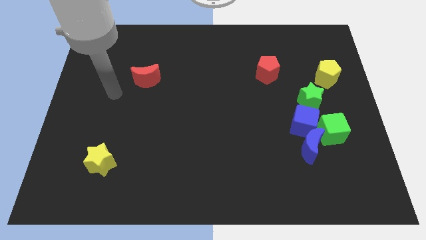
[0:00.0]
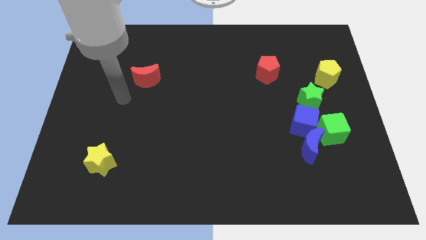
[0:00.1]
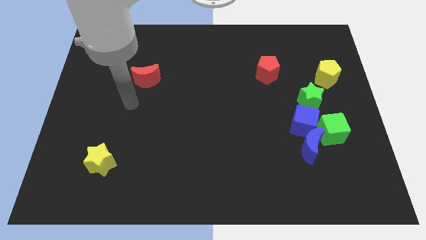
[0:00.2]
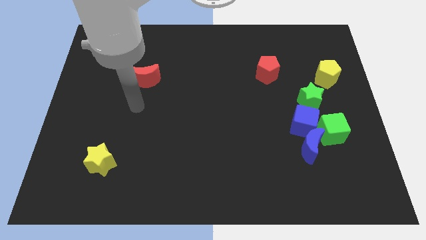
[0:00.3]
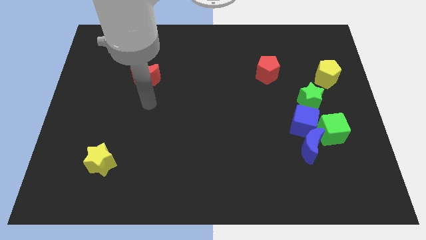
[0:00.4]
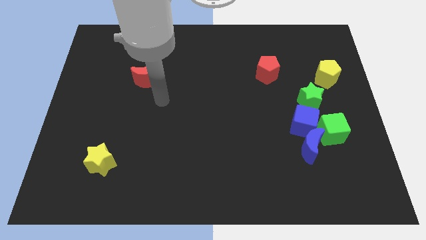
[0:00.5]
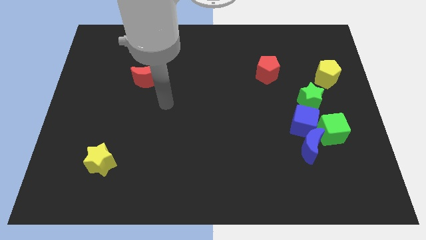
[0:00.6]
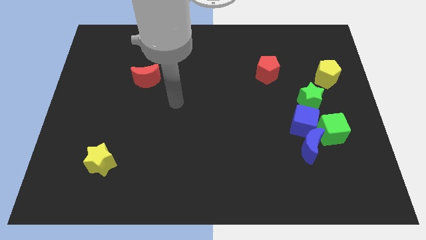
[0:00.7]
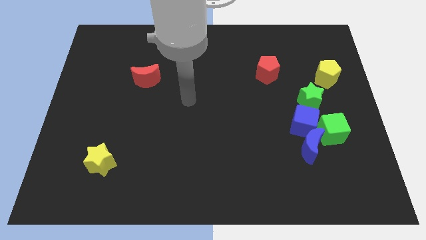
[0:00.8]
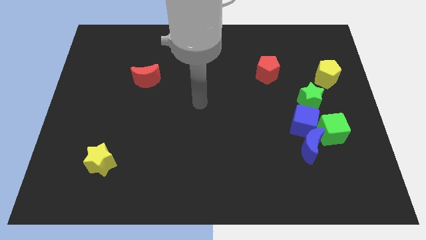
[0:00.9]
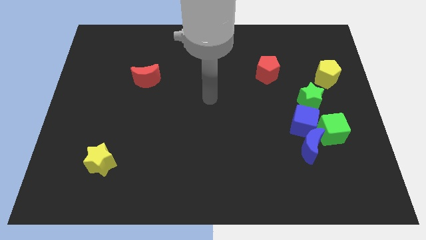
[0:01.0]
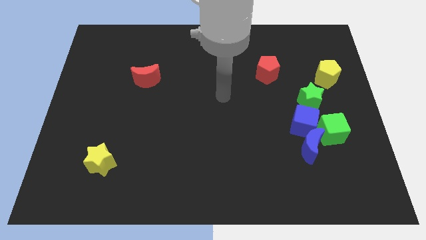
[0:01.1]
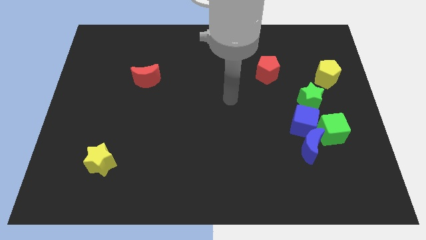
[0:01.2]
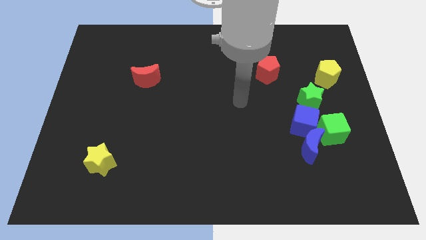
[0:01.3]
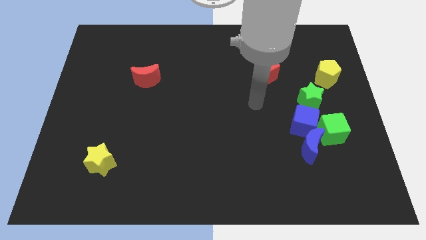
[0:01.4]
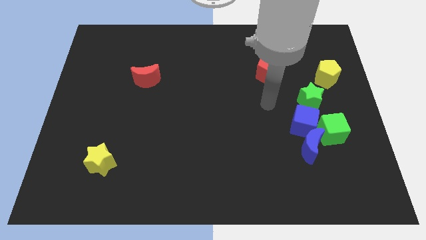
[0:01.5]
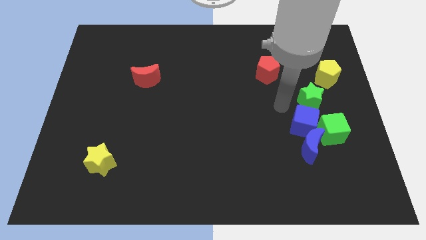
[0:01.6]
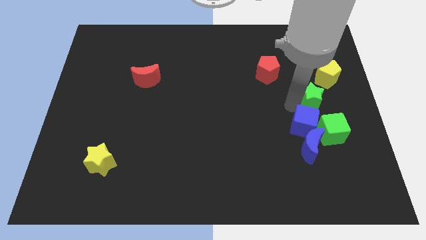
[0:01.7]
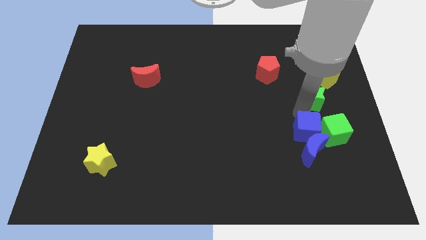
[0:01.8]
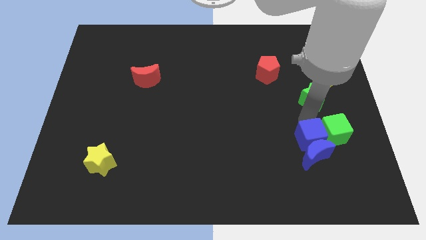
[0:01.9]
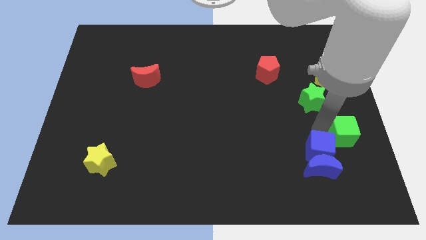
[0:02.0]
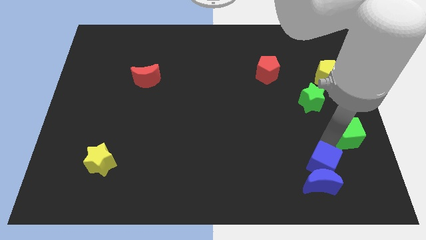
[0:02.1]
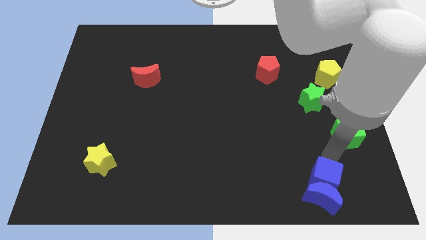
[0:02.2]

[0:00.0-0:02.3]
separate the blue moon from the blue cube and green cube

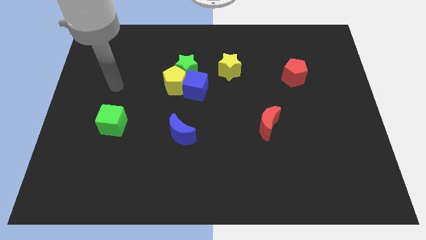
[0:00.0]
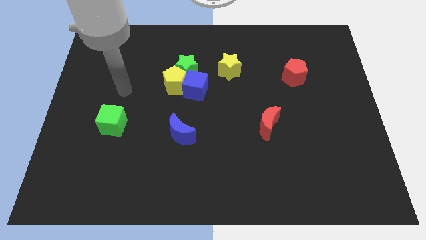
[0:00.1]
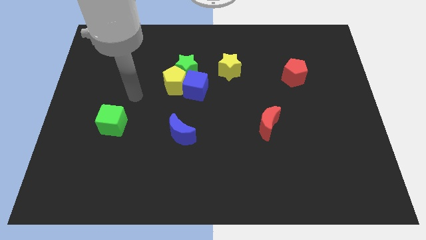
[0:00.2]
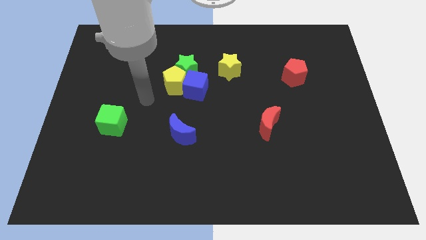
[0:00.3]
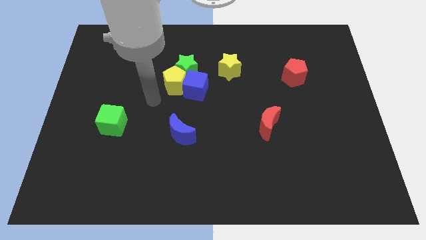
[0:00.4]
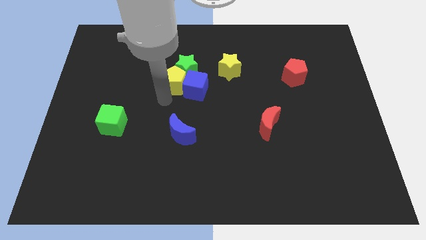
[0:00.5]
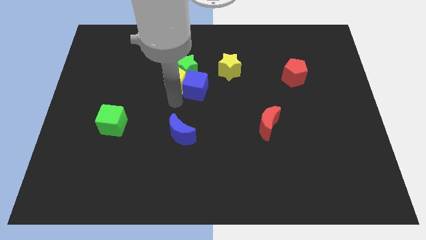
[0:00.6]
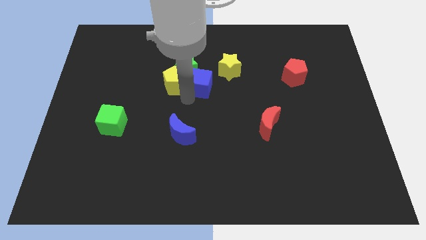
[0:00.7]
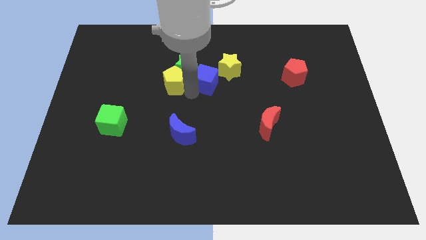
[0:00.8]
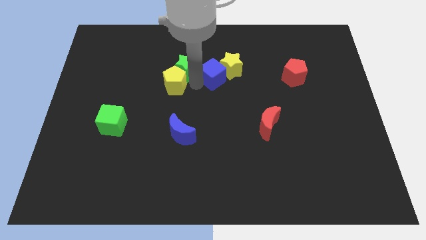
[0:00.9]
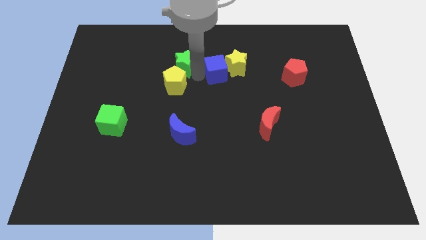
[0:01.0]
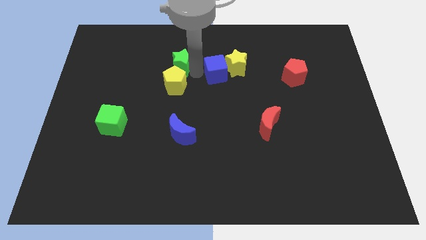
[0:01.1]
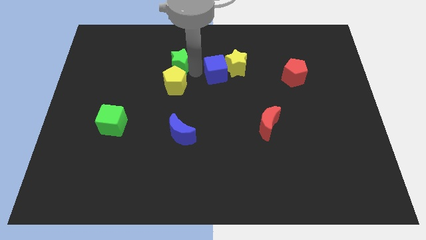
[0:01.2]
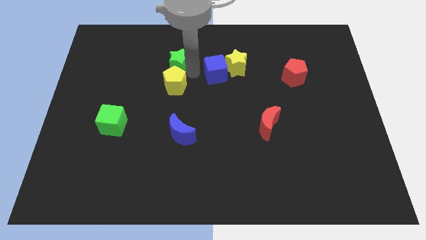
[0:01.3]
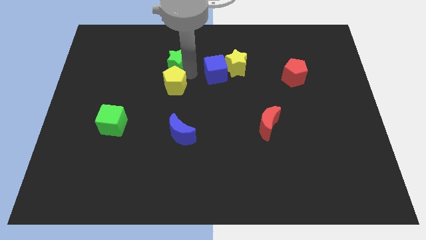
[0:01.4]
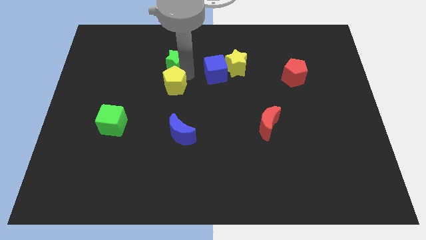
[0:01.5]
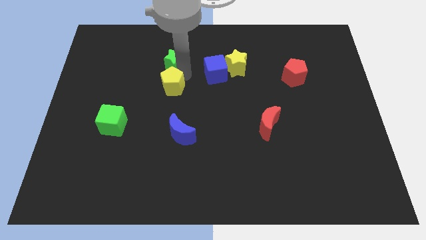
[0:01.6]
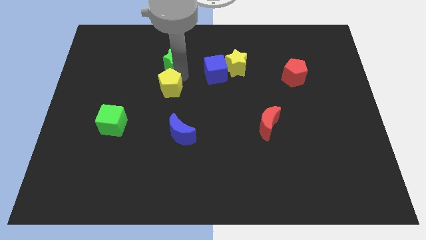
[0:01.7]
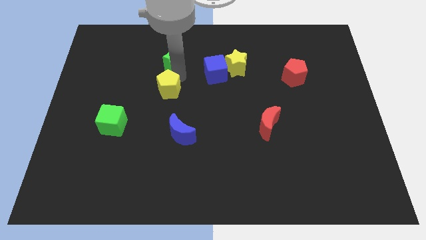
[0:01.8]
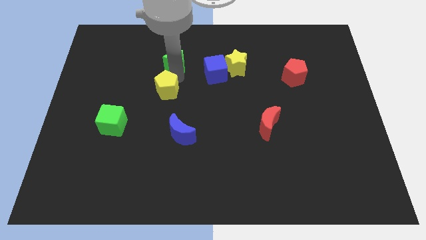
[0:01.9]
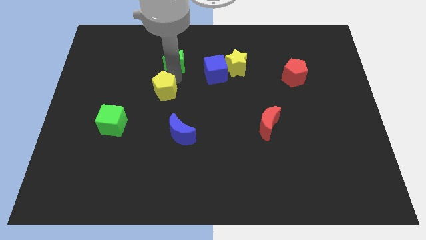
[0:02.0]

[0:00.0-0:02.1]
separate the yellow pentagon from the green star and blue cube

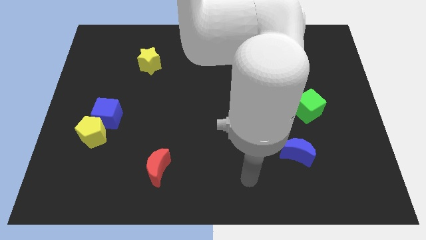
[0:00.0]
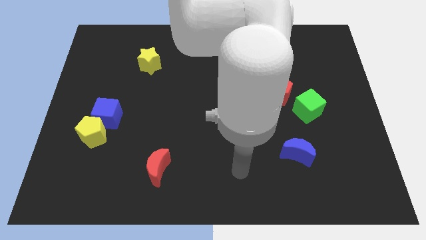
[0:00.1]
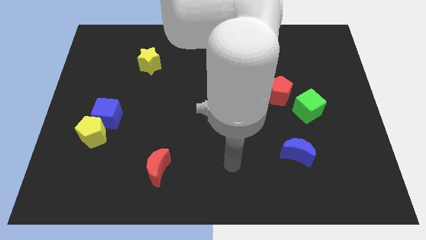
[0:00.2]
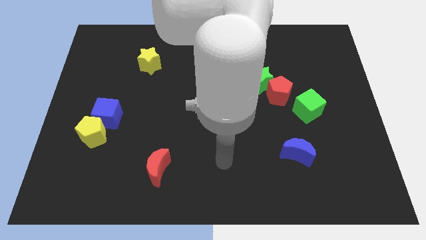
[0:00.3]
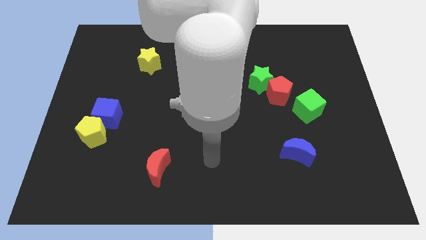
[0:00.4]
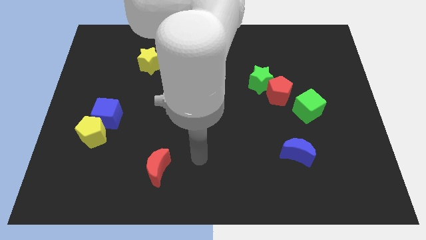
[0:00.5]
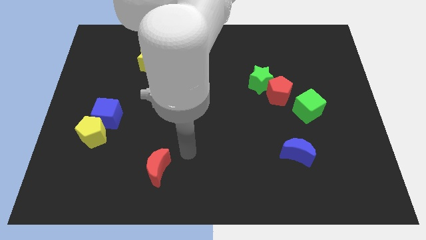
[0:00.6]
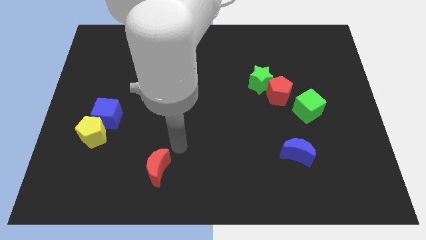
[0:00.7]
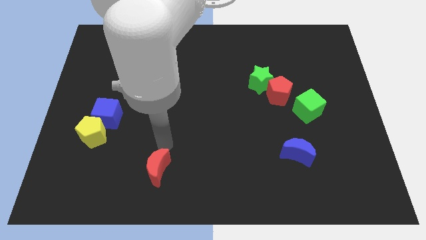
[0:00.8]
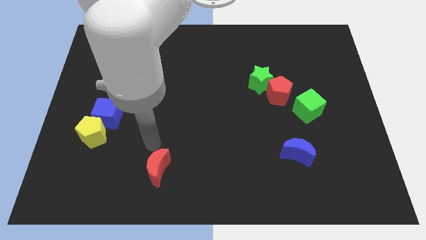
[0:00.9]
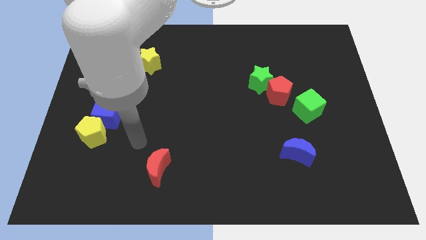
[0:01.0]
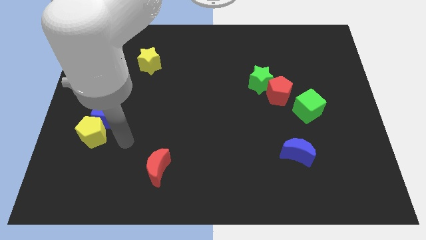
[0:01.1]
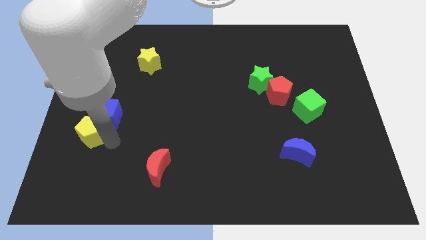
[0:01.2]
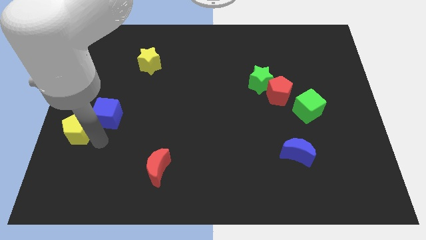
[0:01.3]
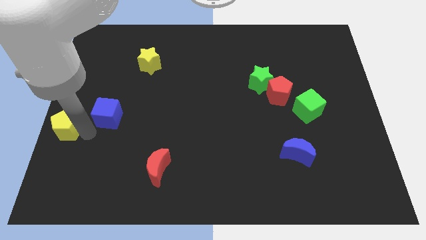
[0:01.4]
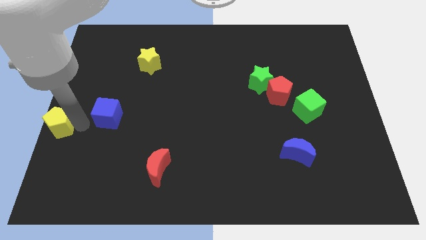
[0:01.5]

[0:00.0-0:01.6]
separate the blue cube from the yellow pentagon

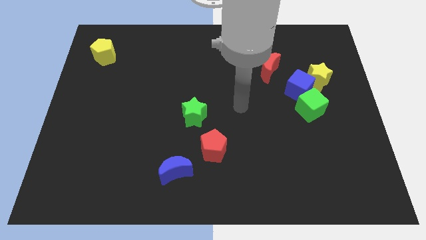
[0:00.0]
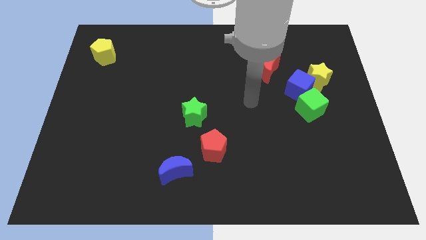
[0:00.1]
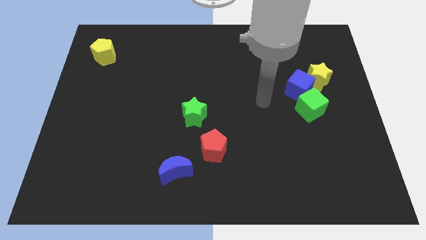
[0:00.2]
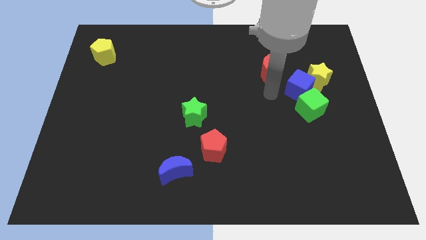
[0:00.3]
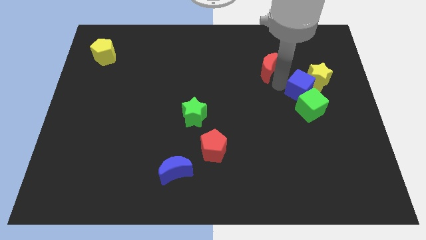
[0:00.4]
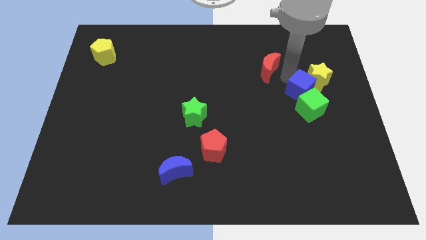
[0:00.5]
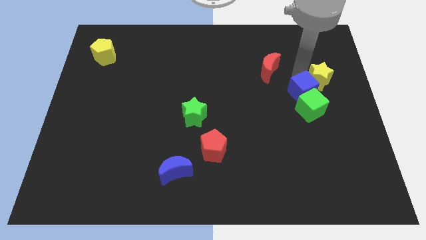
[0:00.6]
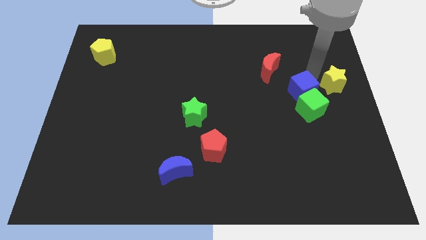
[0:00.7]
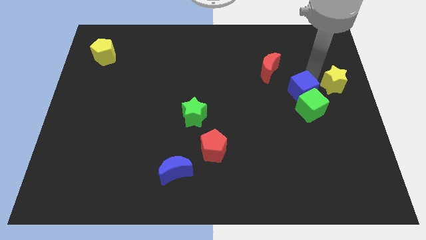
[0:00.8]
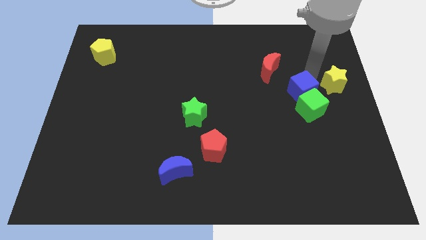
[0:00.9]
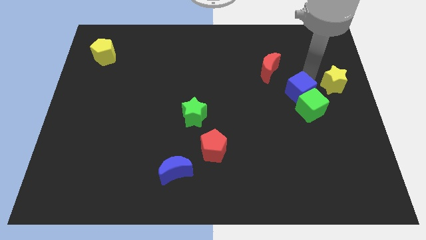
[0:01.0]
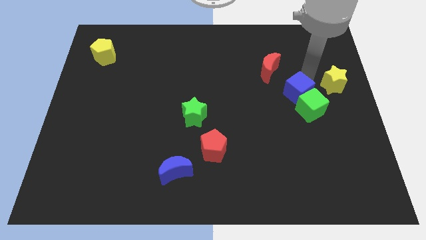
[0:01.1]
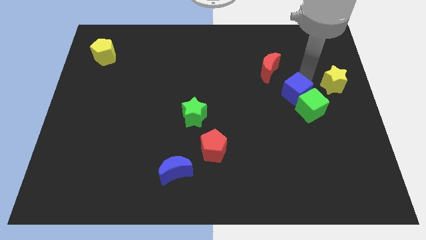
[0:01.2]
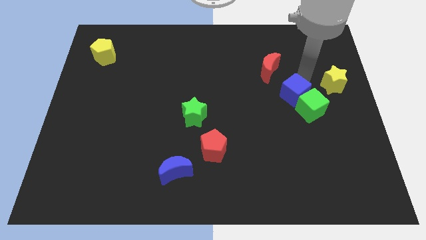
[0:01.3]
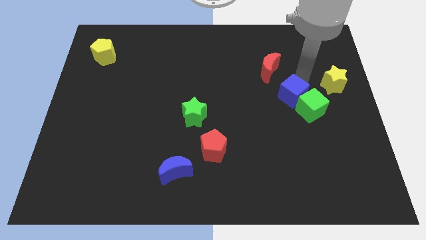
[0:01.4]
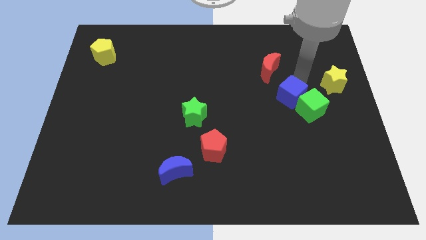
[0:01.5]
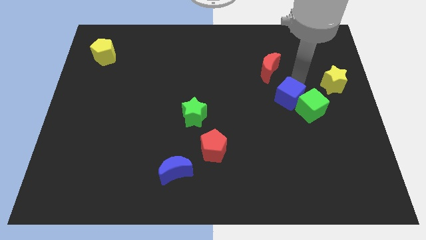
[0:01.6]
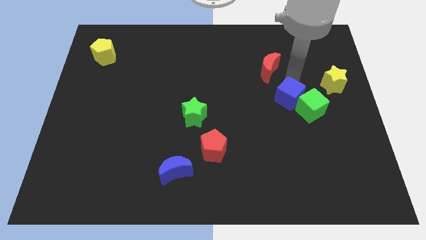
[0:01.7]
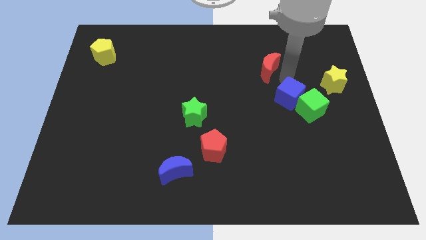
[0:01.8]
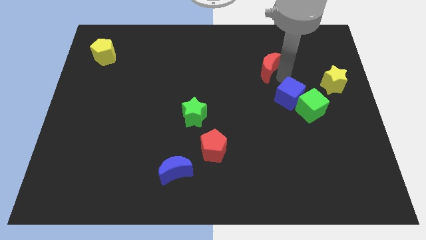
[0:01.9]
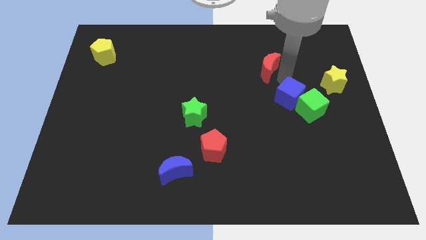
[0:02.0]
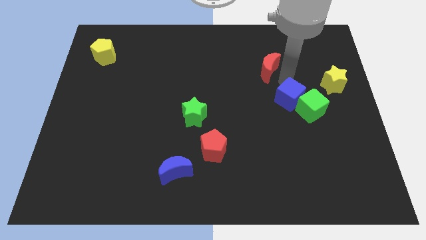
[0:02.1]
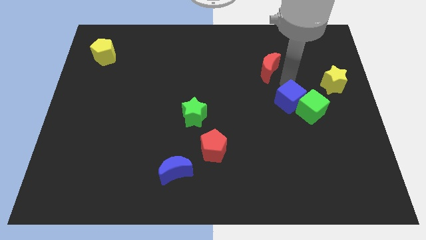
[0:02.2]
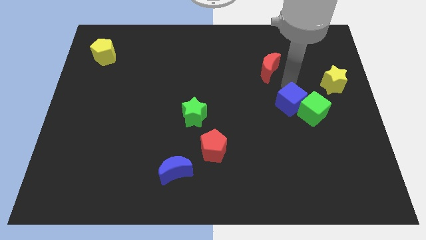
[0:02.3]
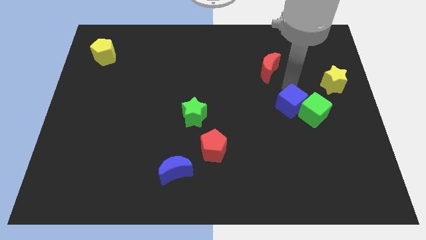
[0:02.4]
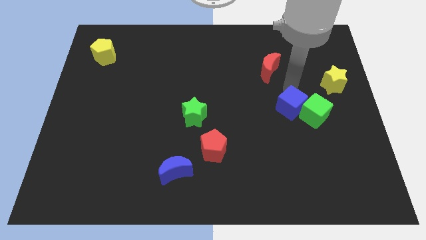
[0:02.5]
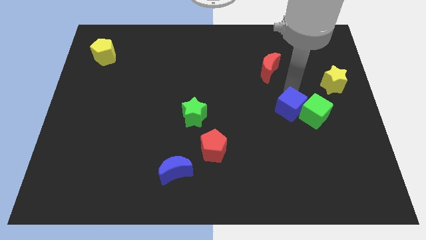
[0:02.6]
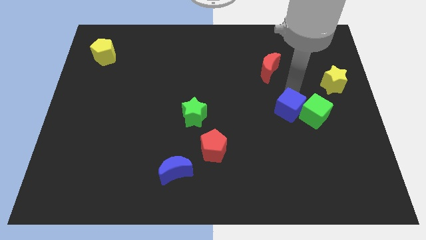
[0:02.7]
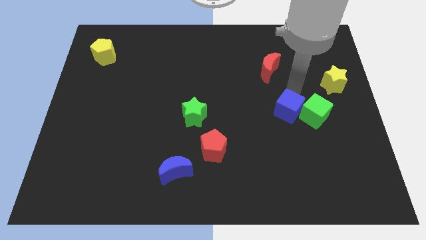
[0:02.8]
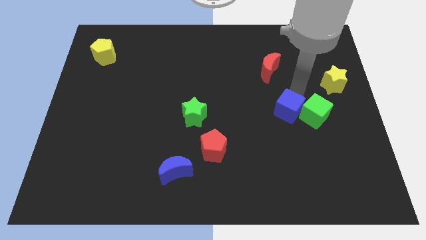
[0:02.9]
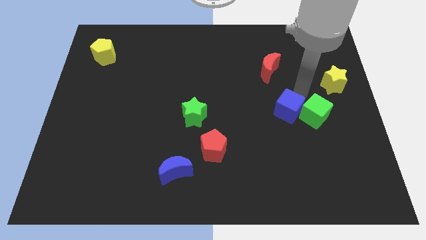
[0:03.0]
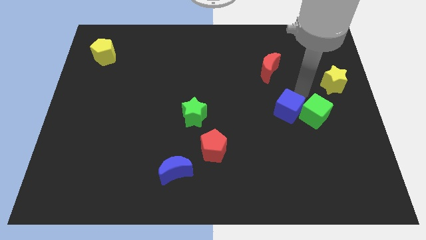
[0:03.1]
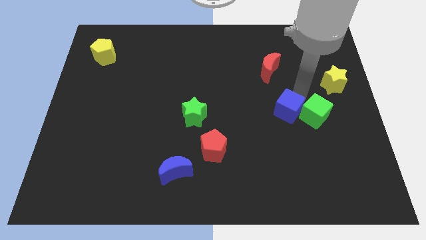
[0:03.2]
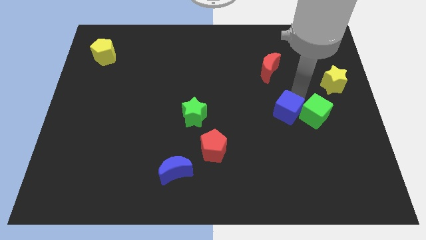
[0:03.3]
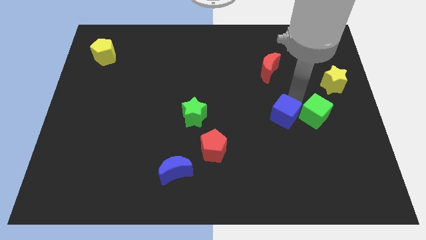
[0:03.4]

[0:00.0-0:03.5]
move the blue cube away from the group
